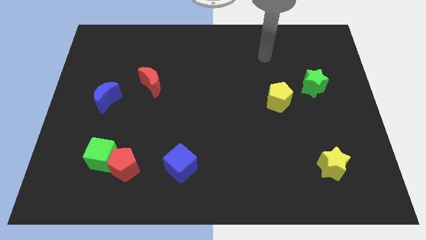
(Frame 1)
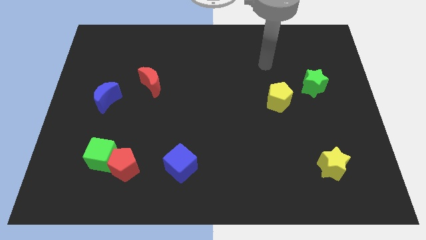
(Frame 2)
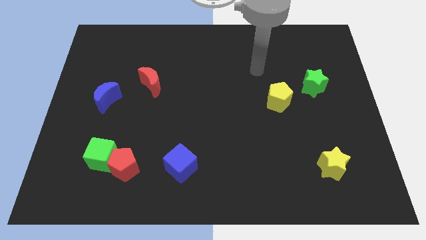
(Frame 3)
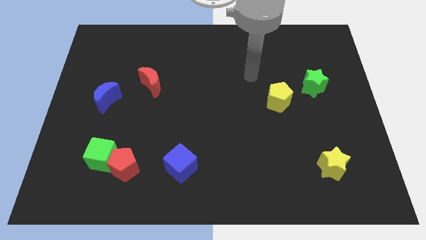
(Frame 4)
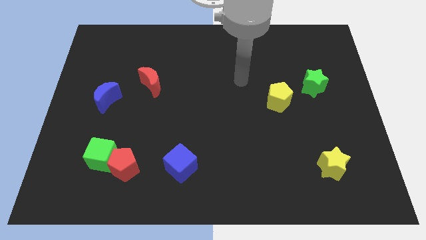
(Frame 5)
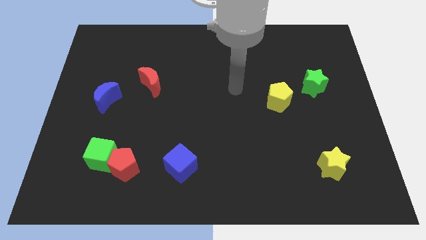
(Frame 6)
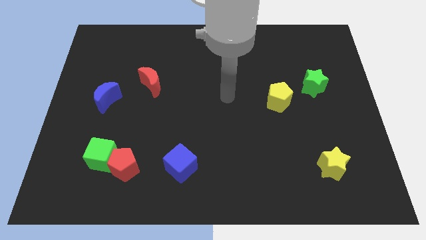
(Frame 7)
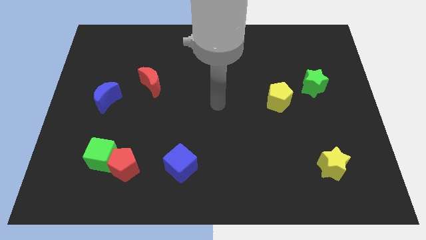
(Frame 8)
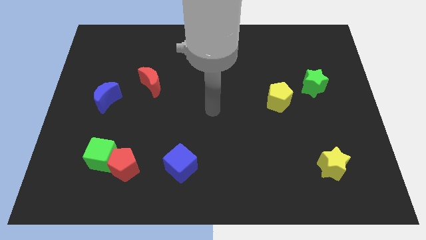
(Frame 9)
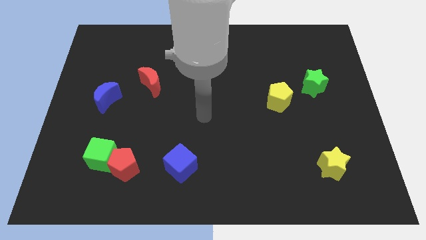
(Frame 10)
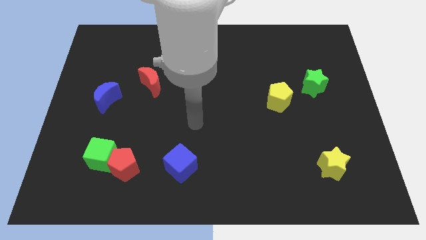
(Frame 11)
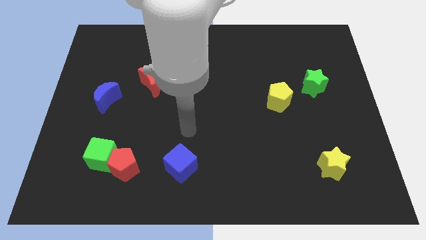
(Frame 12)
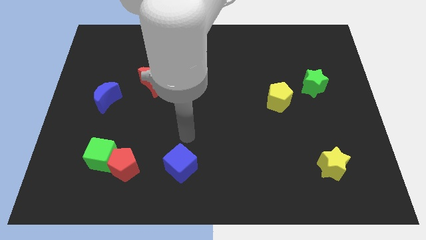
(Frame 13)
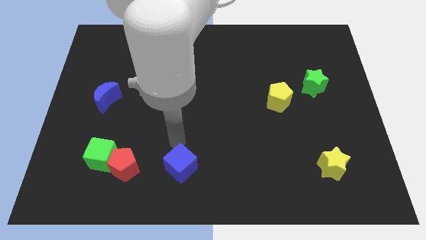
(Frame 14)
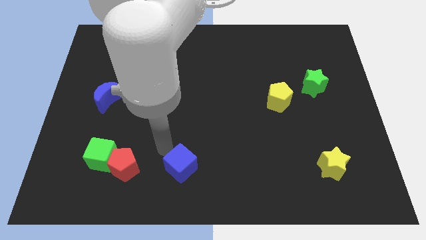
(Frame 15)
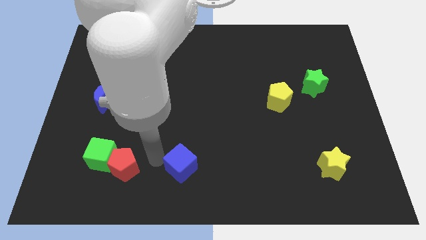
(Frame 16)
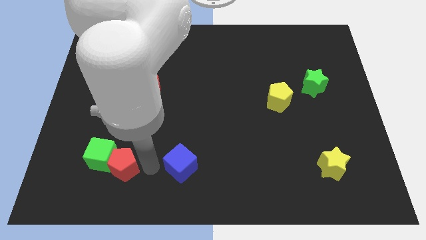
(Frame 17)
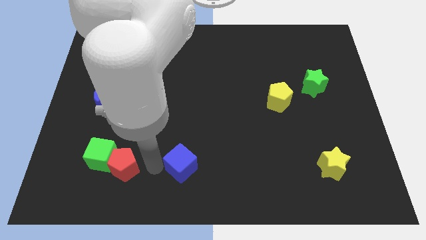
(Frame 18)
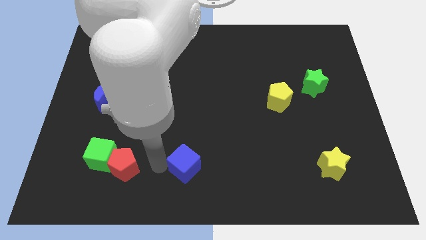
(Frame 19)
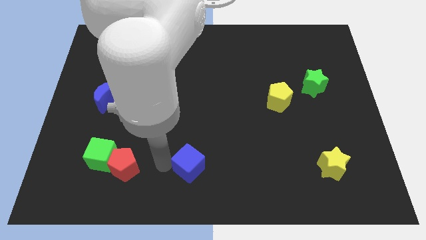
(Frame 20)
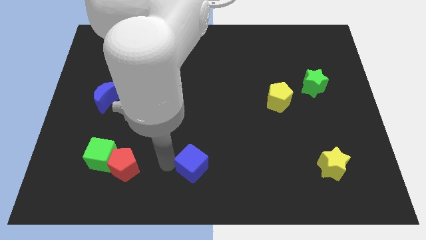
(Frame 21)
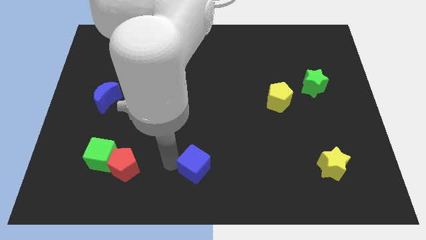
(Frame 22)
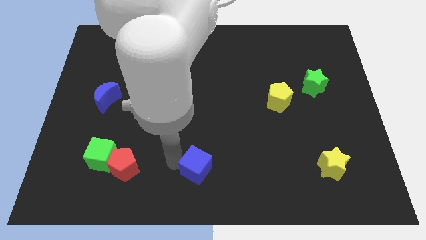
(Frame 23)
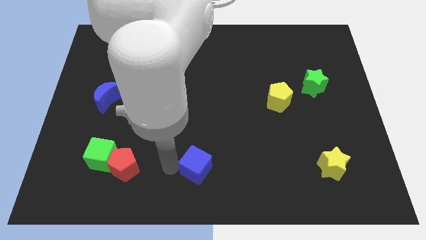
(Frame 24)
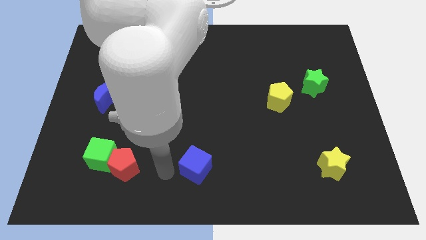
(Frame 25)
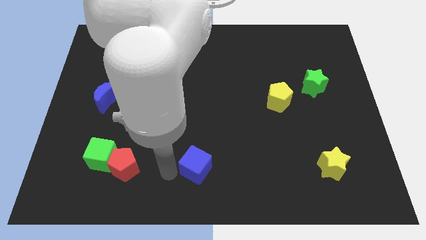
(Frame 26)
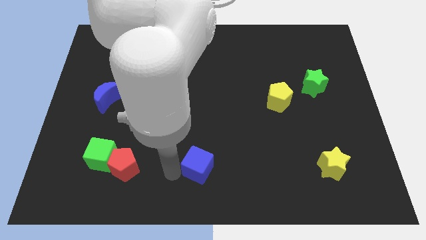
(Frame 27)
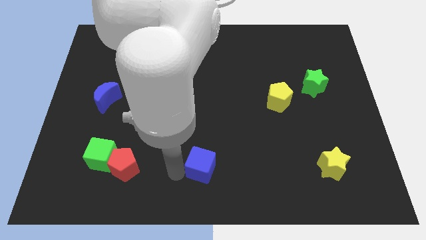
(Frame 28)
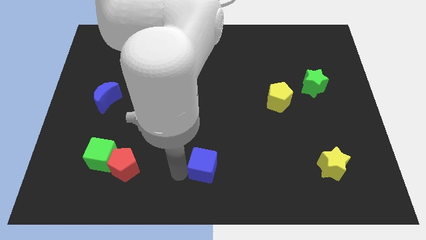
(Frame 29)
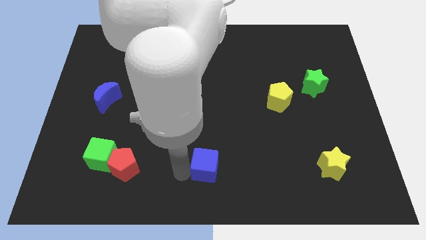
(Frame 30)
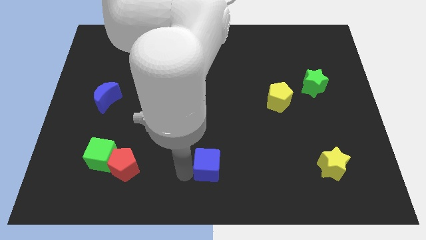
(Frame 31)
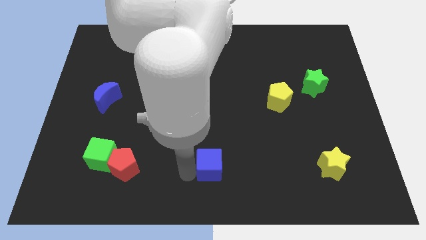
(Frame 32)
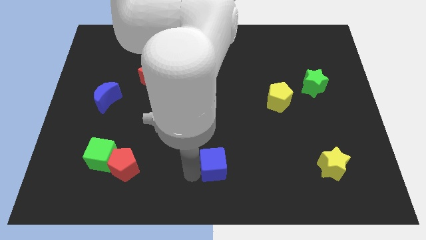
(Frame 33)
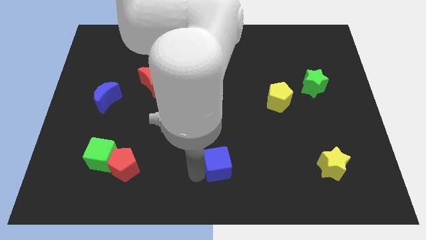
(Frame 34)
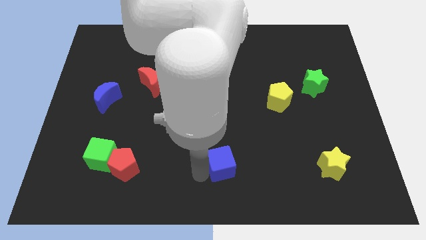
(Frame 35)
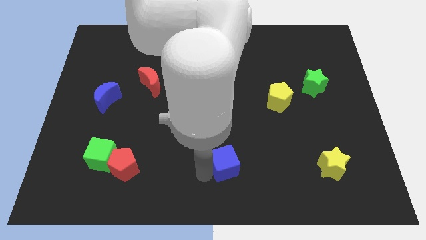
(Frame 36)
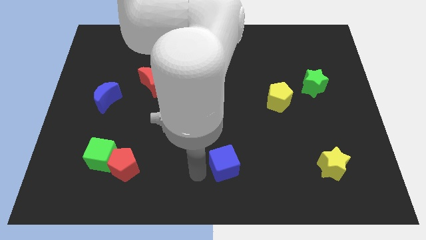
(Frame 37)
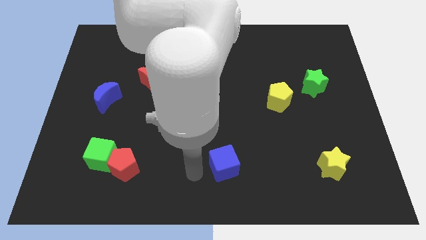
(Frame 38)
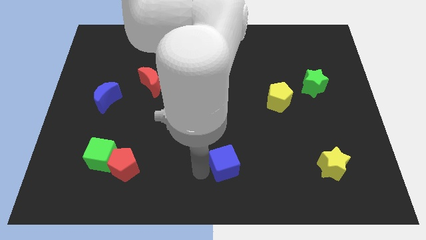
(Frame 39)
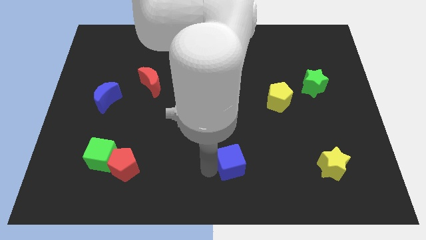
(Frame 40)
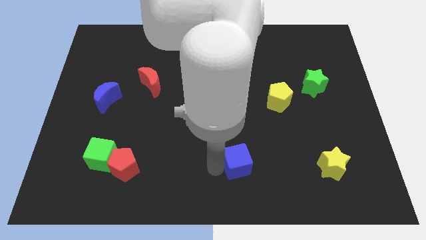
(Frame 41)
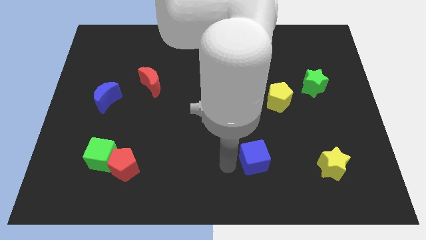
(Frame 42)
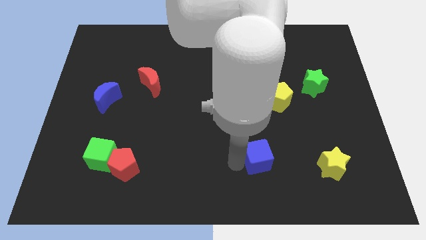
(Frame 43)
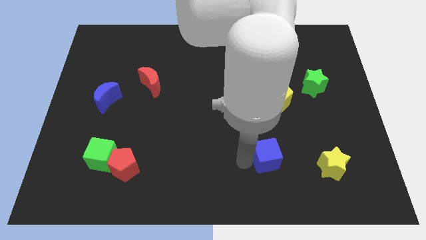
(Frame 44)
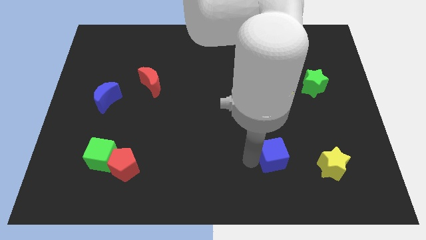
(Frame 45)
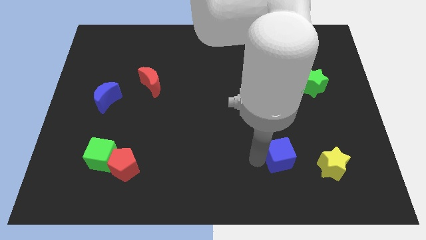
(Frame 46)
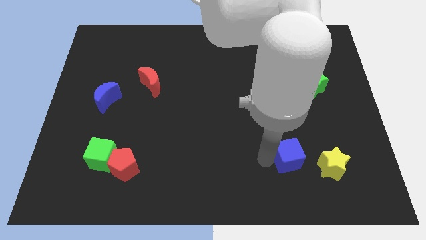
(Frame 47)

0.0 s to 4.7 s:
slide the blue cube to the top left side of the yellow star

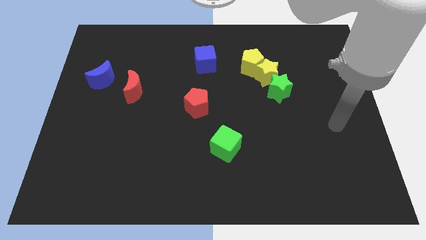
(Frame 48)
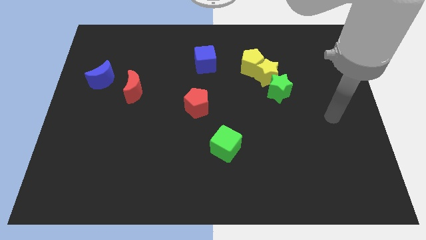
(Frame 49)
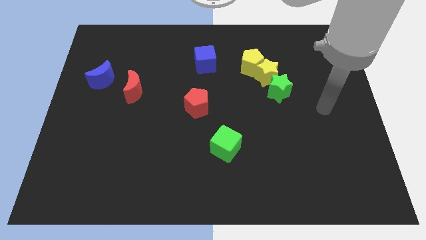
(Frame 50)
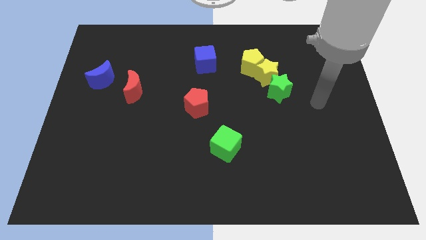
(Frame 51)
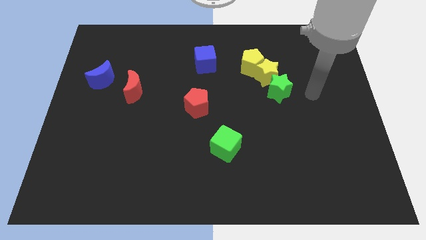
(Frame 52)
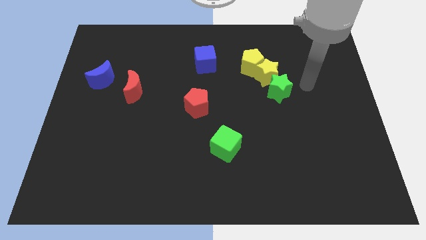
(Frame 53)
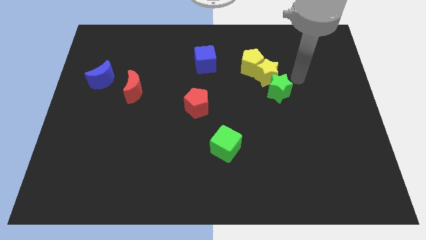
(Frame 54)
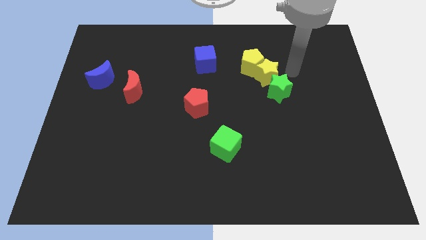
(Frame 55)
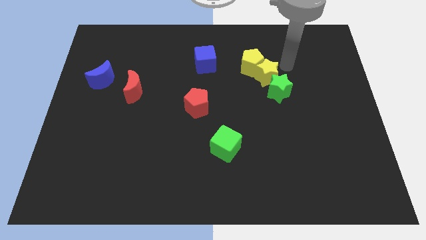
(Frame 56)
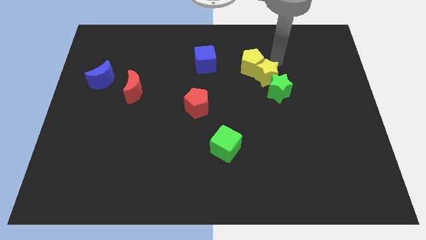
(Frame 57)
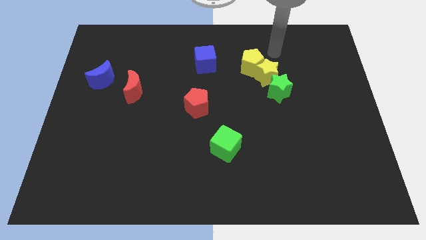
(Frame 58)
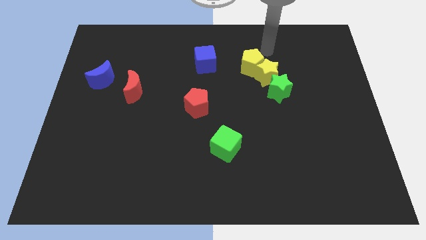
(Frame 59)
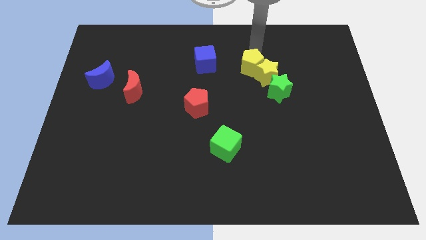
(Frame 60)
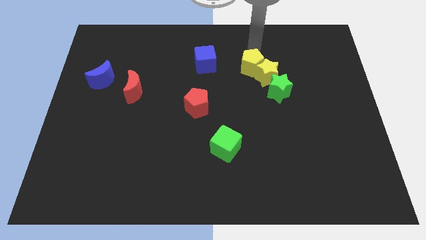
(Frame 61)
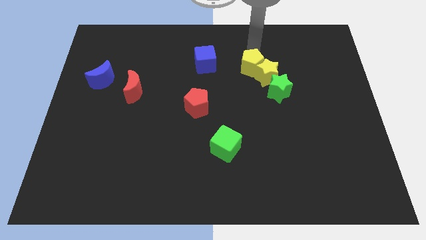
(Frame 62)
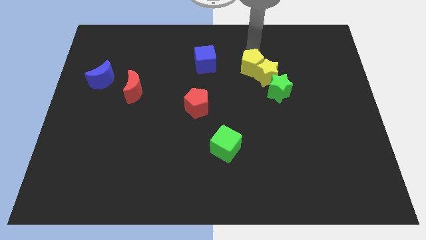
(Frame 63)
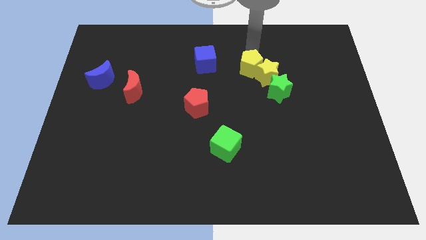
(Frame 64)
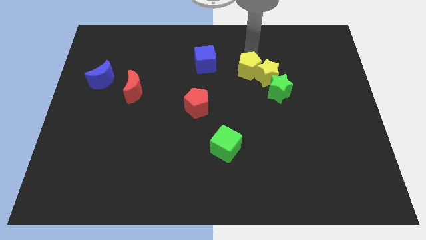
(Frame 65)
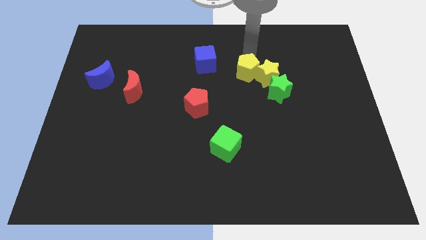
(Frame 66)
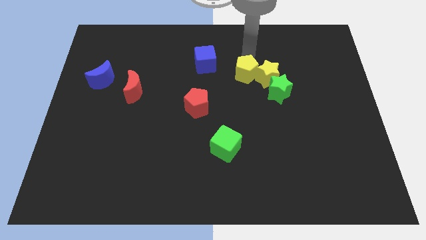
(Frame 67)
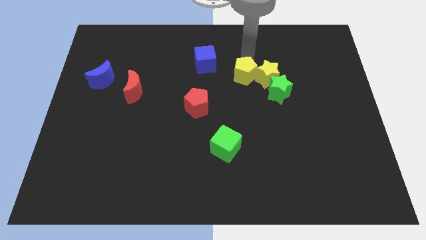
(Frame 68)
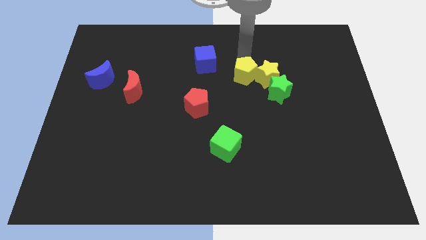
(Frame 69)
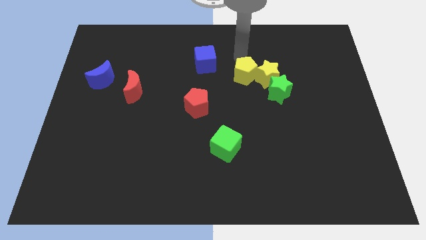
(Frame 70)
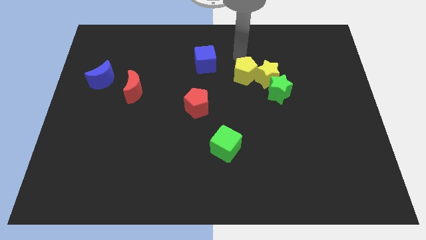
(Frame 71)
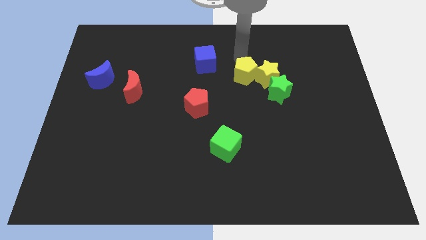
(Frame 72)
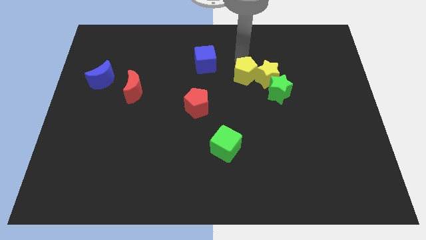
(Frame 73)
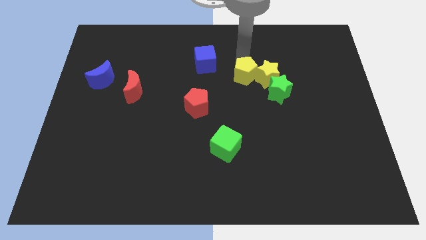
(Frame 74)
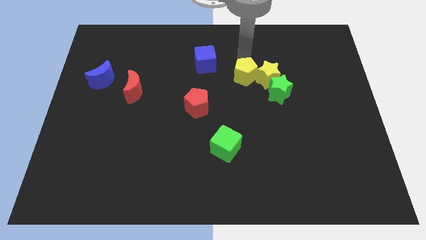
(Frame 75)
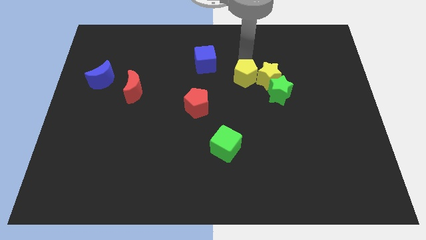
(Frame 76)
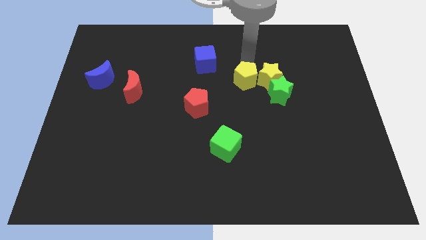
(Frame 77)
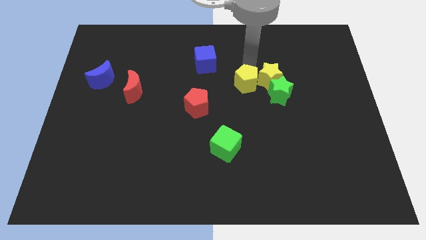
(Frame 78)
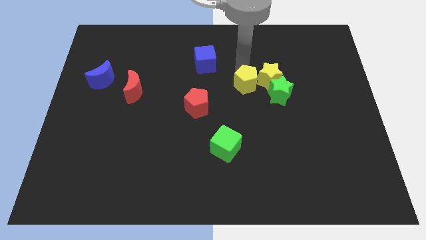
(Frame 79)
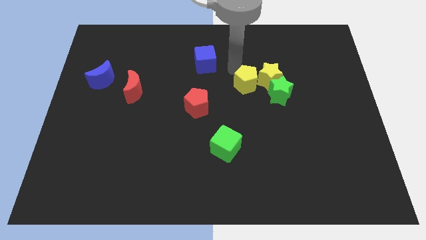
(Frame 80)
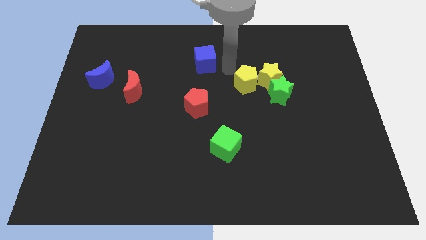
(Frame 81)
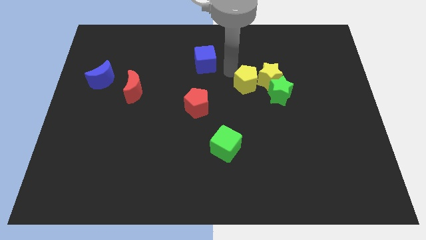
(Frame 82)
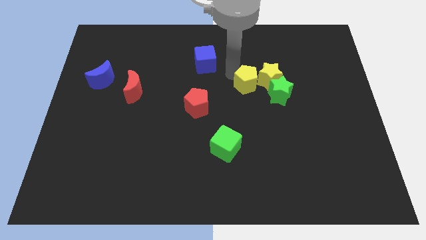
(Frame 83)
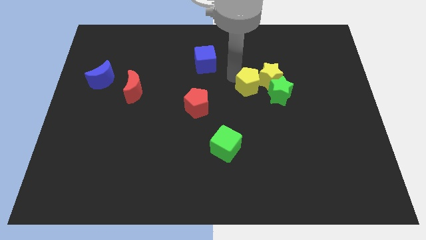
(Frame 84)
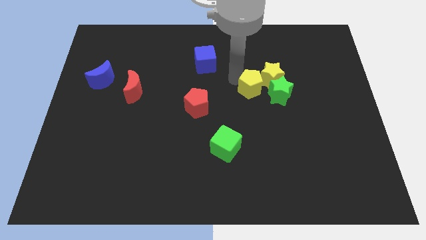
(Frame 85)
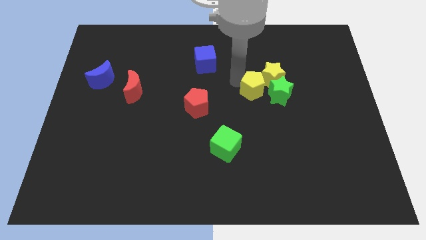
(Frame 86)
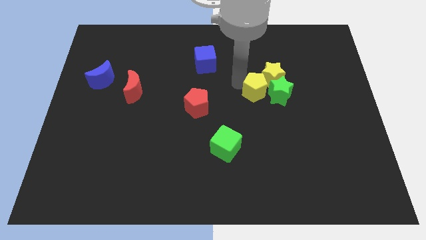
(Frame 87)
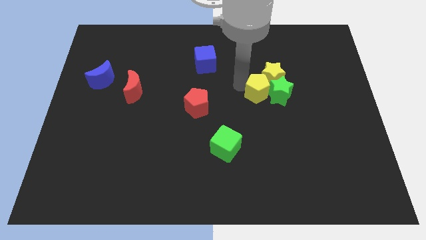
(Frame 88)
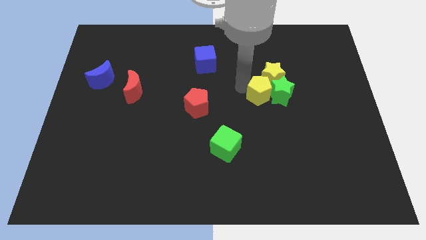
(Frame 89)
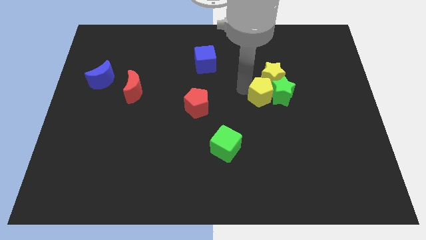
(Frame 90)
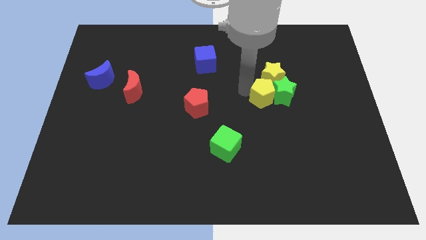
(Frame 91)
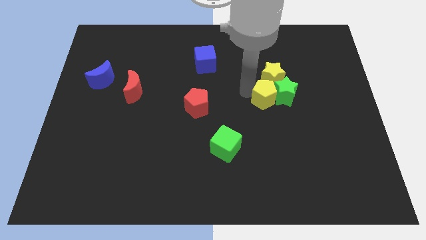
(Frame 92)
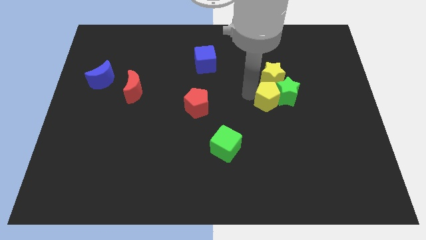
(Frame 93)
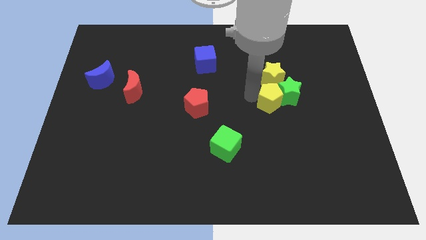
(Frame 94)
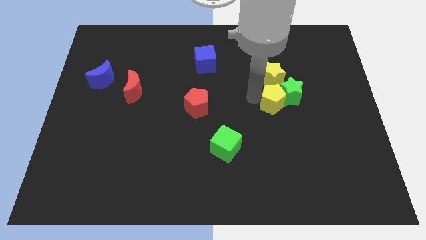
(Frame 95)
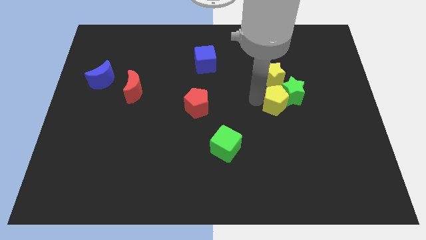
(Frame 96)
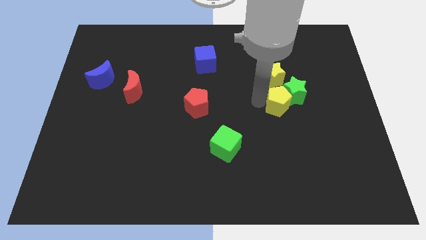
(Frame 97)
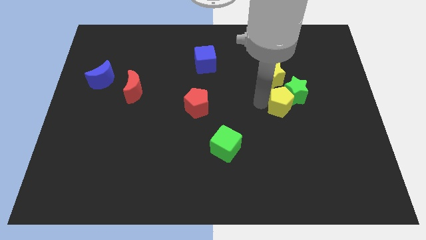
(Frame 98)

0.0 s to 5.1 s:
slide the yellow pentagon to the bottom right of the yellow star
